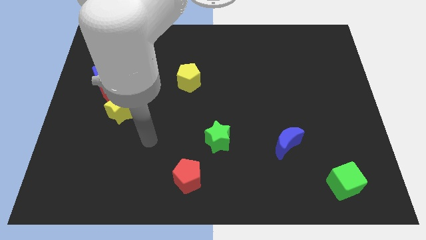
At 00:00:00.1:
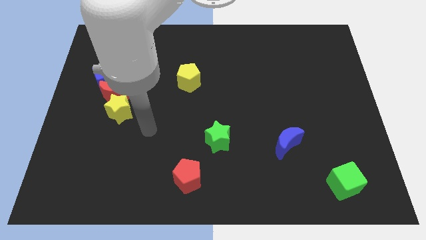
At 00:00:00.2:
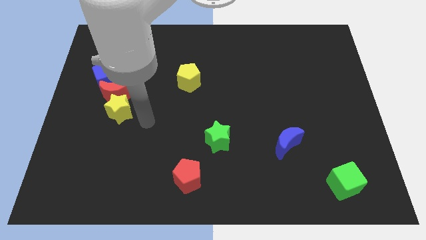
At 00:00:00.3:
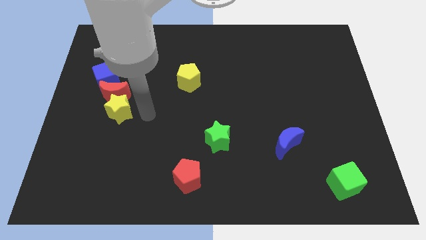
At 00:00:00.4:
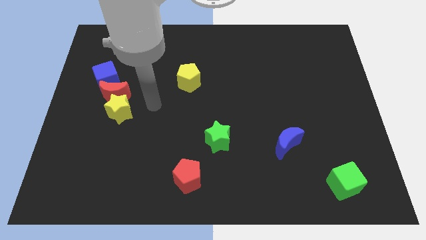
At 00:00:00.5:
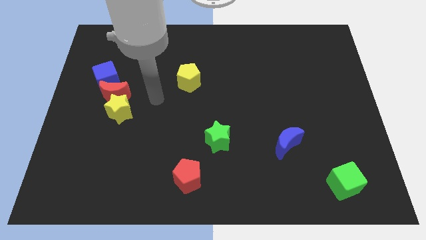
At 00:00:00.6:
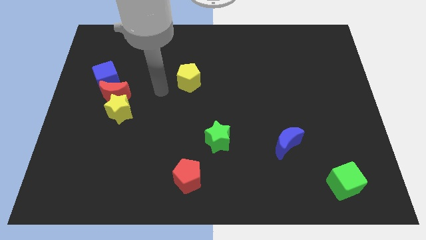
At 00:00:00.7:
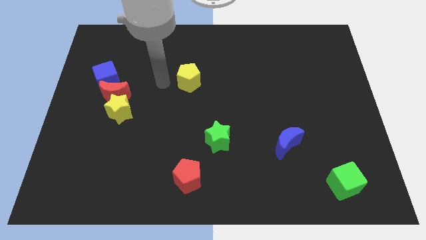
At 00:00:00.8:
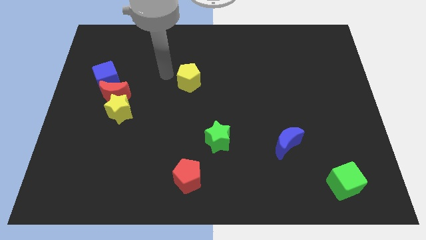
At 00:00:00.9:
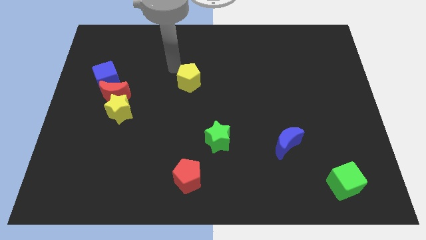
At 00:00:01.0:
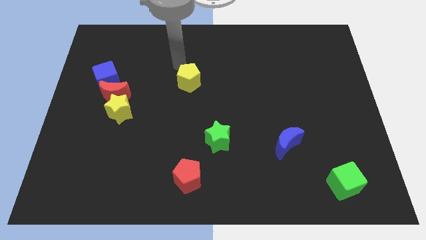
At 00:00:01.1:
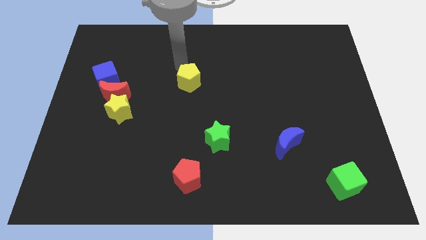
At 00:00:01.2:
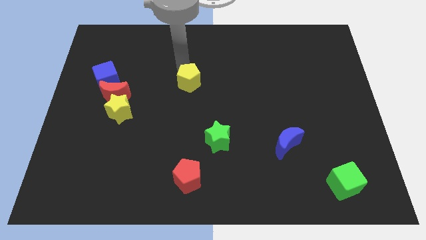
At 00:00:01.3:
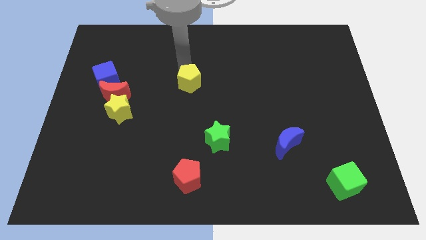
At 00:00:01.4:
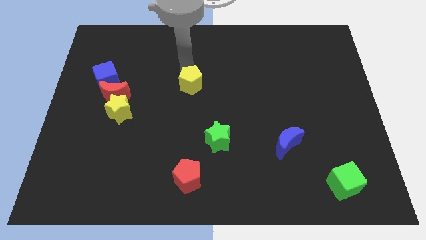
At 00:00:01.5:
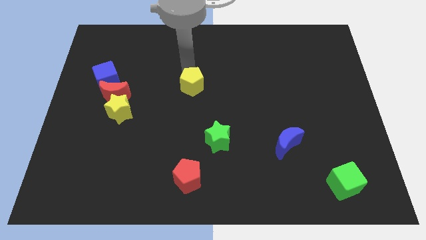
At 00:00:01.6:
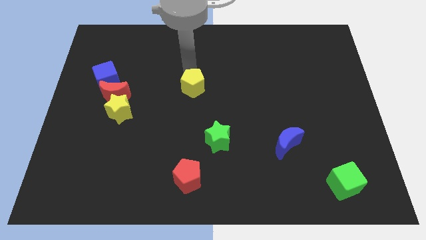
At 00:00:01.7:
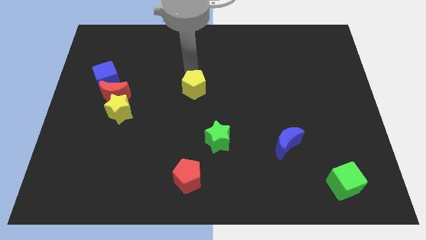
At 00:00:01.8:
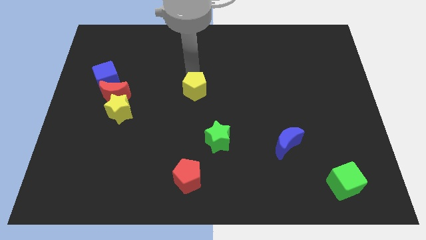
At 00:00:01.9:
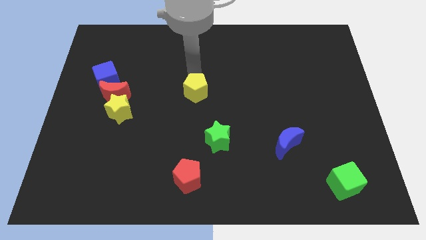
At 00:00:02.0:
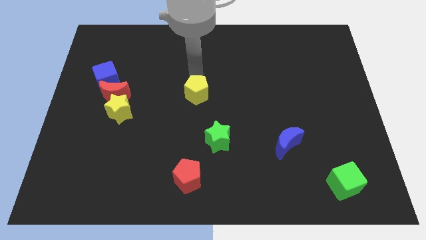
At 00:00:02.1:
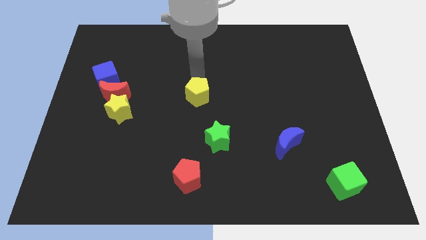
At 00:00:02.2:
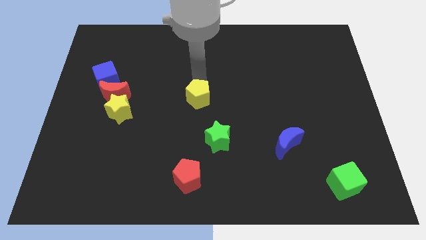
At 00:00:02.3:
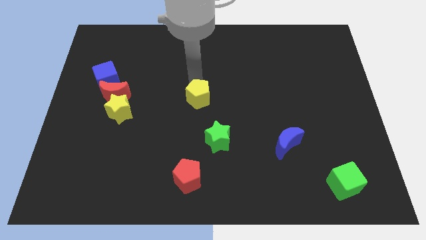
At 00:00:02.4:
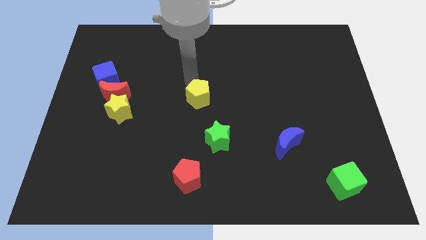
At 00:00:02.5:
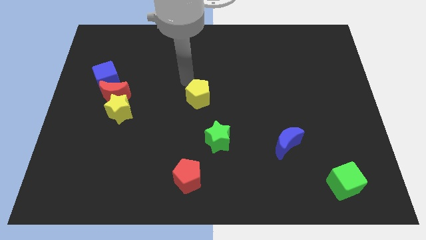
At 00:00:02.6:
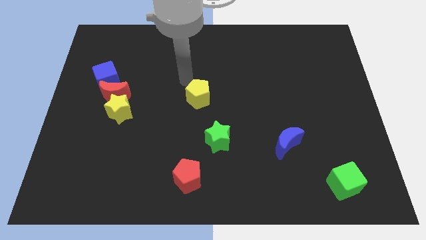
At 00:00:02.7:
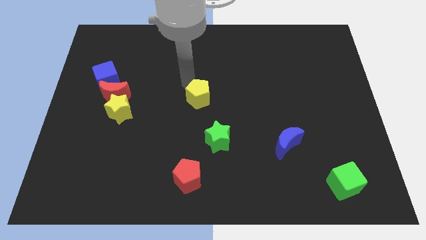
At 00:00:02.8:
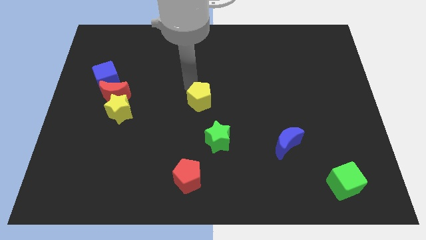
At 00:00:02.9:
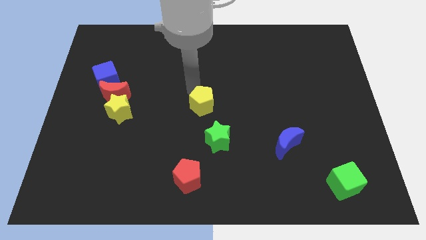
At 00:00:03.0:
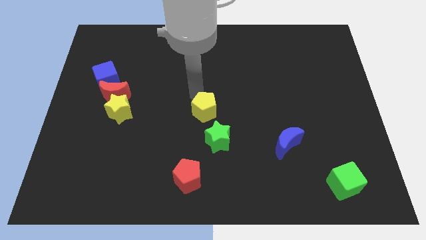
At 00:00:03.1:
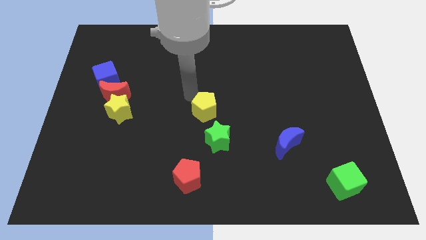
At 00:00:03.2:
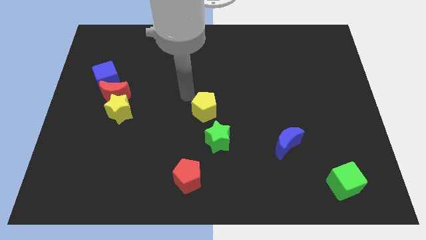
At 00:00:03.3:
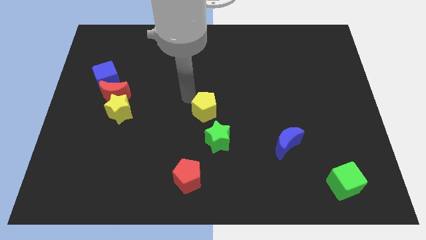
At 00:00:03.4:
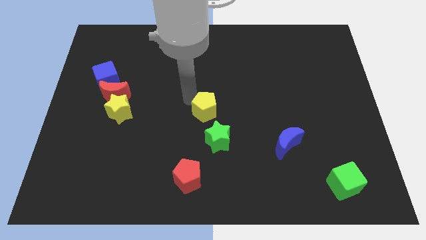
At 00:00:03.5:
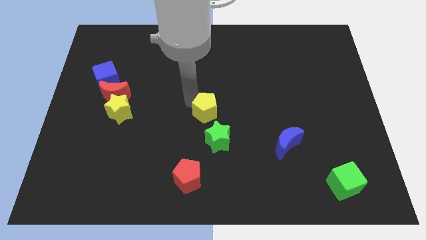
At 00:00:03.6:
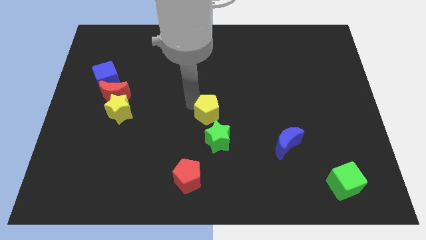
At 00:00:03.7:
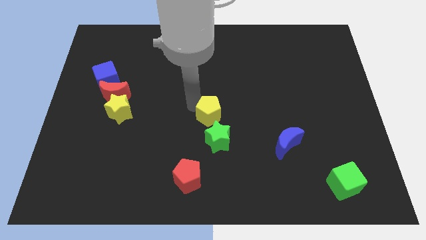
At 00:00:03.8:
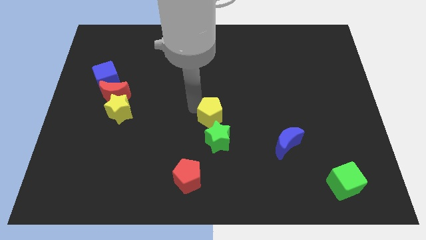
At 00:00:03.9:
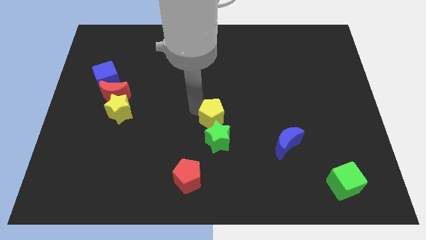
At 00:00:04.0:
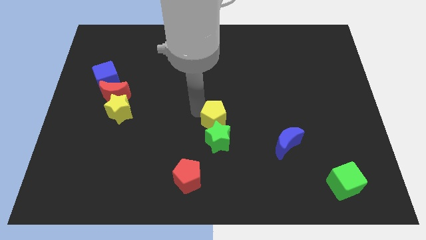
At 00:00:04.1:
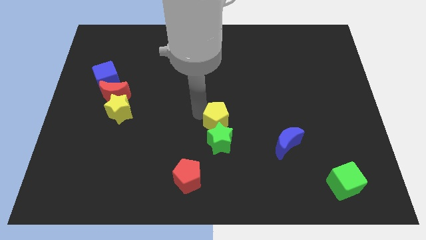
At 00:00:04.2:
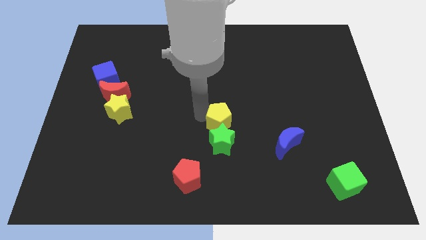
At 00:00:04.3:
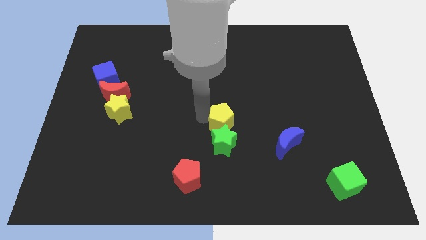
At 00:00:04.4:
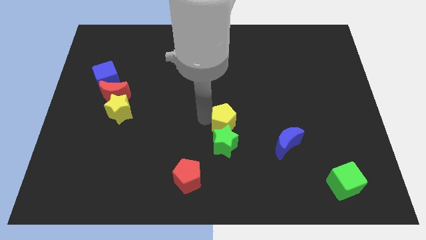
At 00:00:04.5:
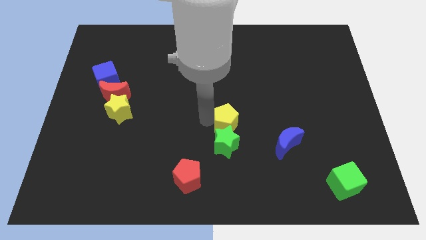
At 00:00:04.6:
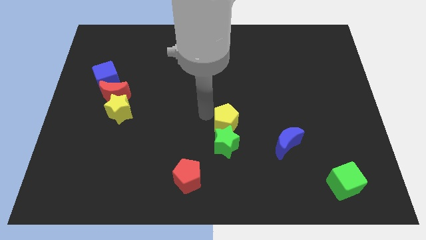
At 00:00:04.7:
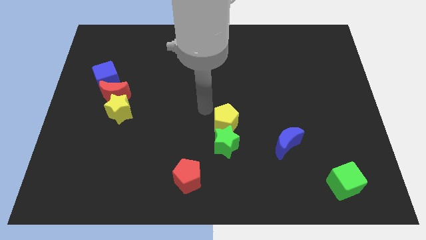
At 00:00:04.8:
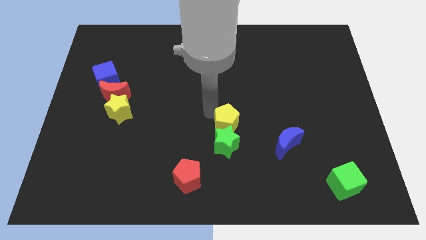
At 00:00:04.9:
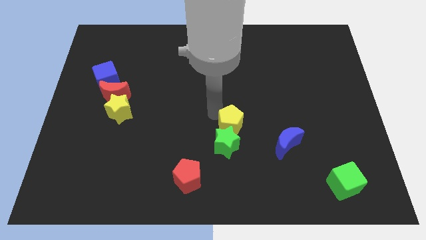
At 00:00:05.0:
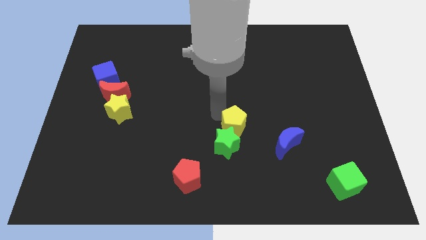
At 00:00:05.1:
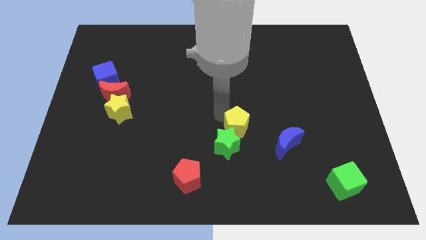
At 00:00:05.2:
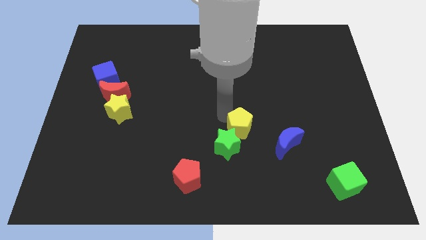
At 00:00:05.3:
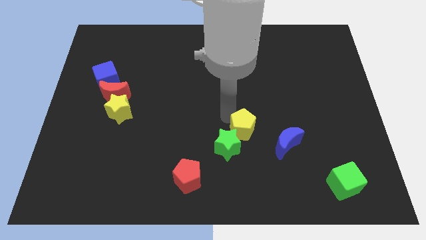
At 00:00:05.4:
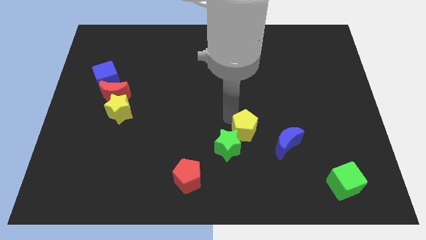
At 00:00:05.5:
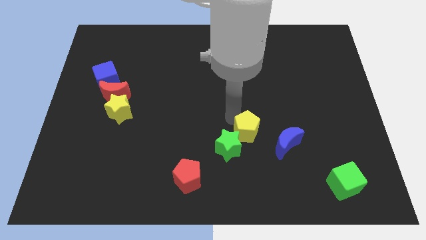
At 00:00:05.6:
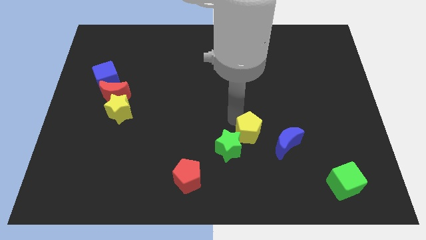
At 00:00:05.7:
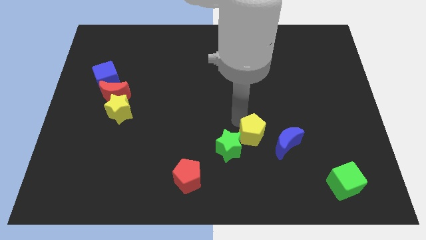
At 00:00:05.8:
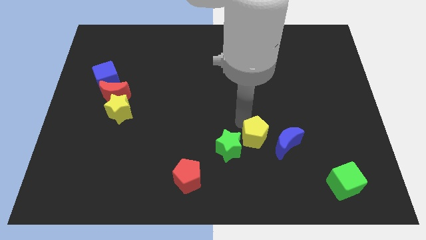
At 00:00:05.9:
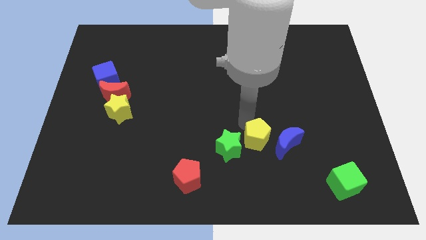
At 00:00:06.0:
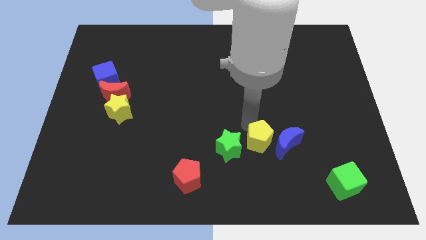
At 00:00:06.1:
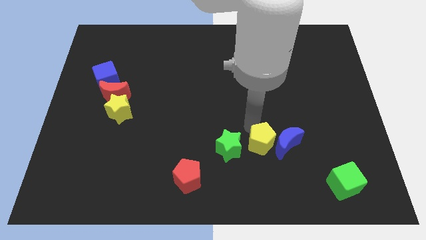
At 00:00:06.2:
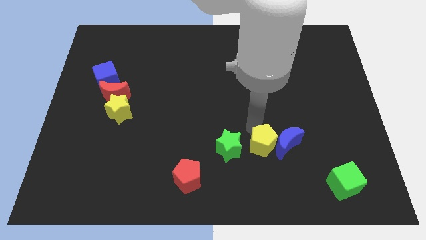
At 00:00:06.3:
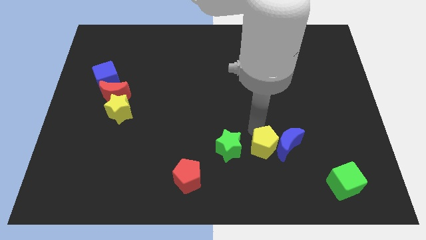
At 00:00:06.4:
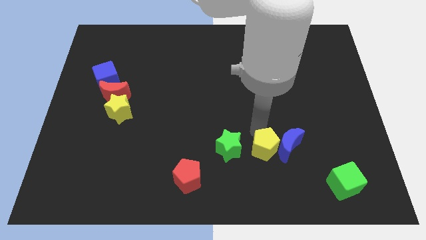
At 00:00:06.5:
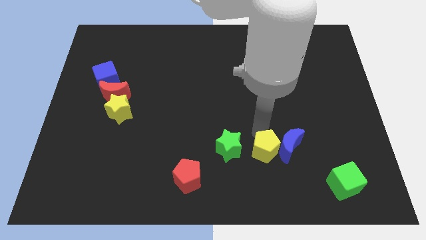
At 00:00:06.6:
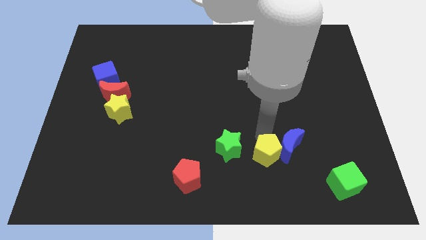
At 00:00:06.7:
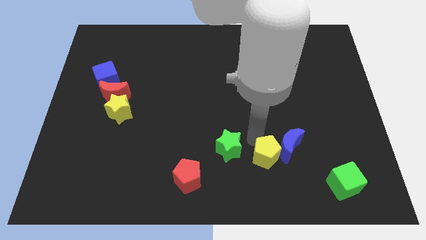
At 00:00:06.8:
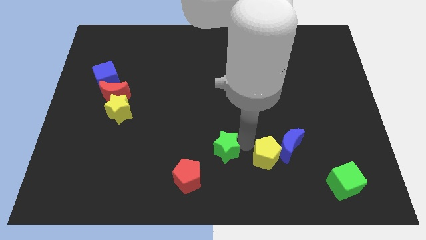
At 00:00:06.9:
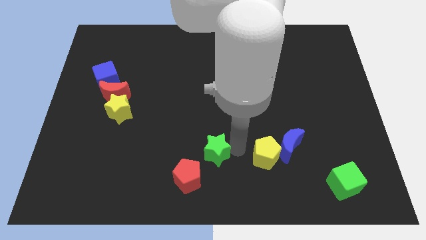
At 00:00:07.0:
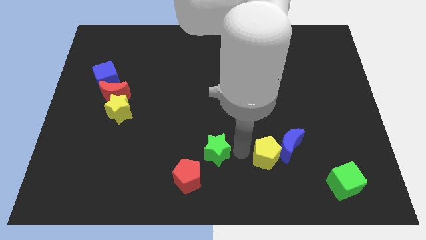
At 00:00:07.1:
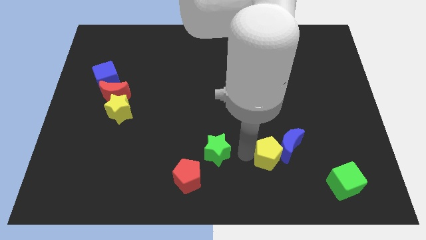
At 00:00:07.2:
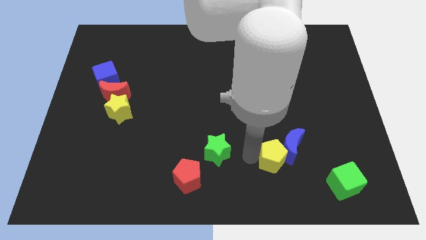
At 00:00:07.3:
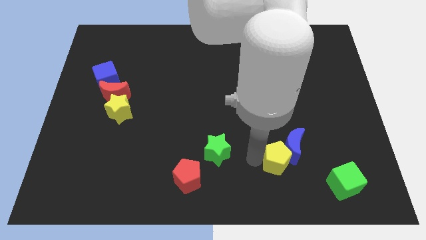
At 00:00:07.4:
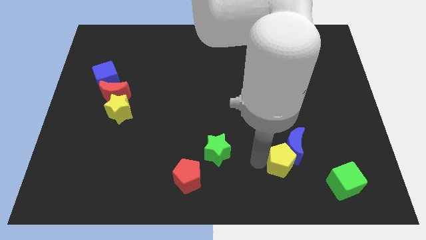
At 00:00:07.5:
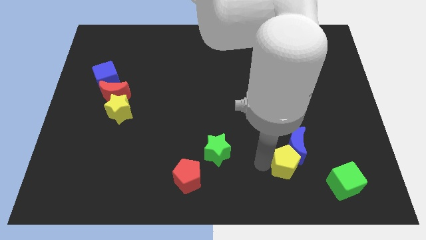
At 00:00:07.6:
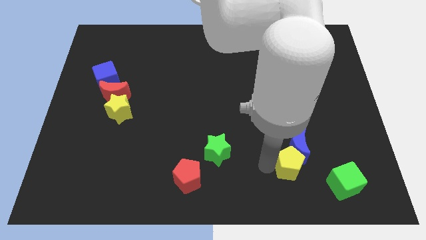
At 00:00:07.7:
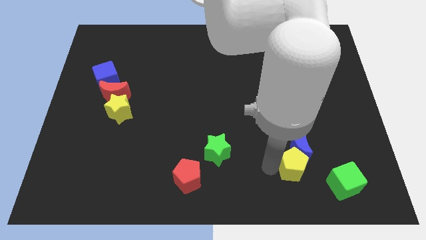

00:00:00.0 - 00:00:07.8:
move the yellow pentagon to the bottom right side of the blue moon
